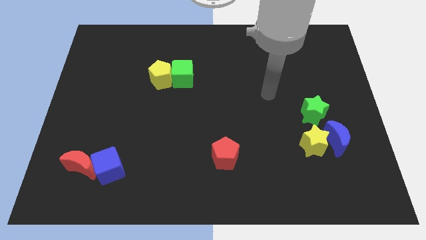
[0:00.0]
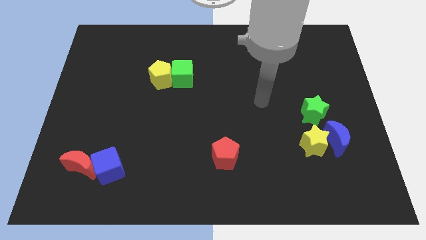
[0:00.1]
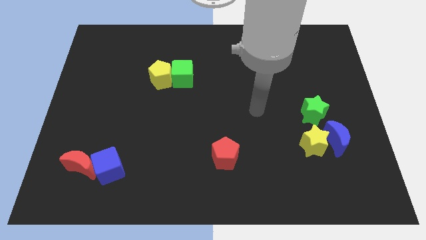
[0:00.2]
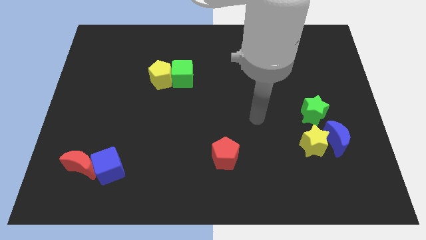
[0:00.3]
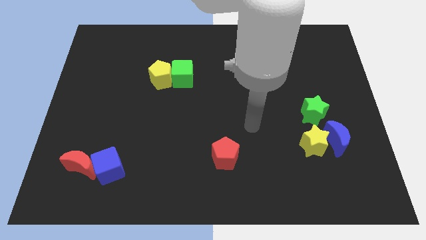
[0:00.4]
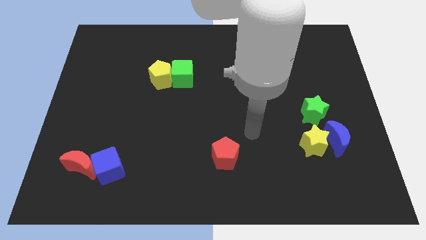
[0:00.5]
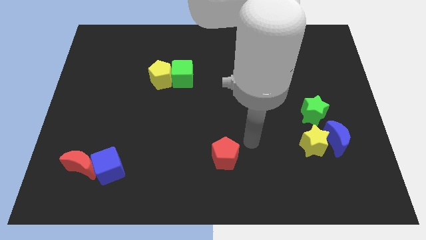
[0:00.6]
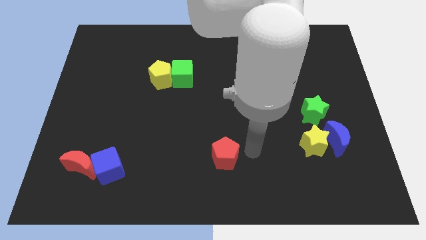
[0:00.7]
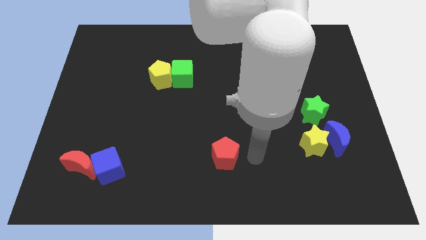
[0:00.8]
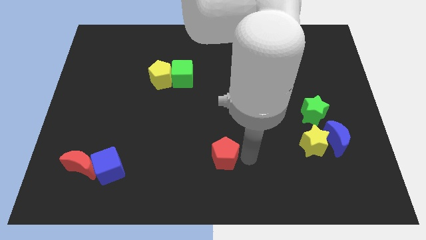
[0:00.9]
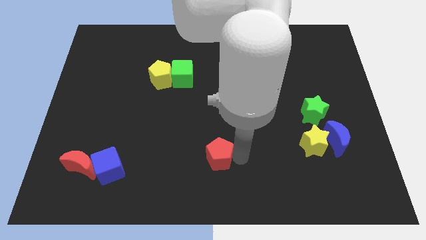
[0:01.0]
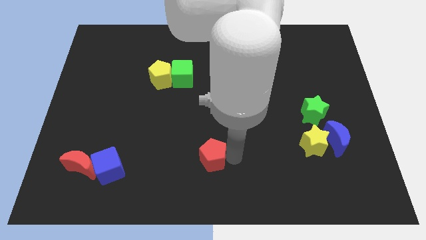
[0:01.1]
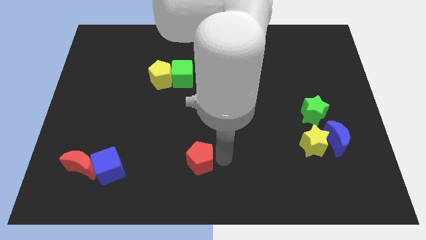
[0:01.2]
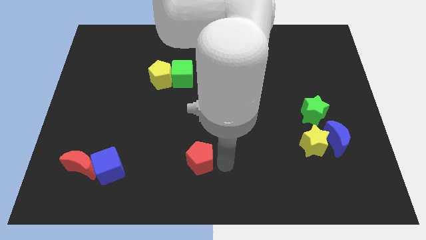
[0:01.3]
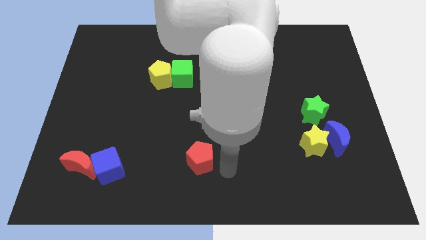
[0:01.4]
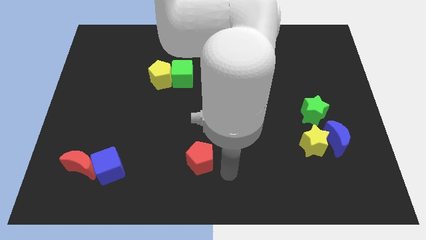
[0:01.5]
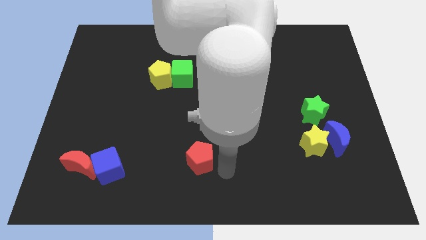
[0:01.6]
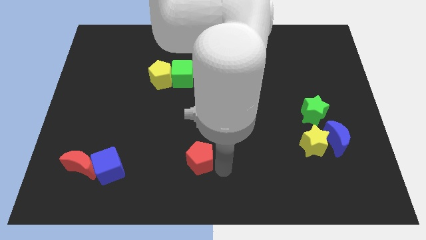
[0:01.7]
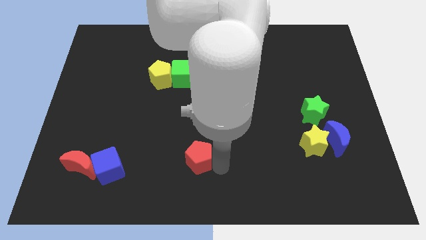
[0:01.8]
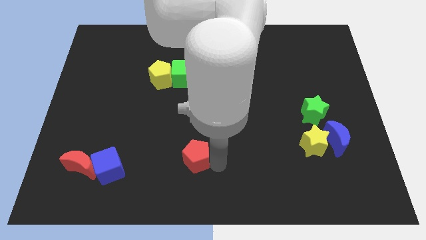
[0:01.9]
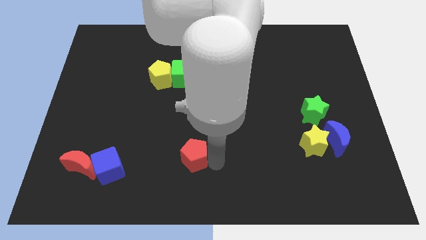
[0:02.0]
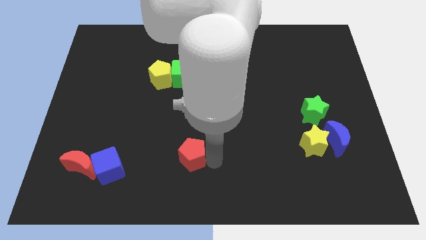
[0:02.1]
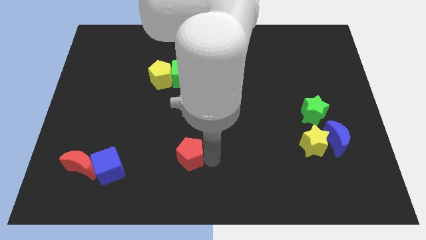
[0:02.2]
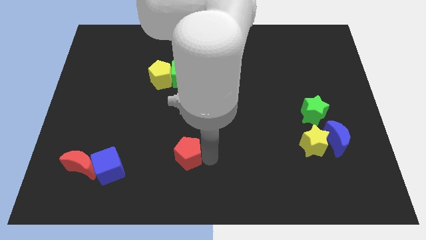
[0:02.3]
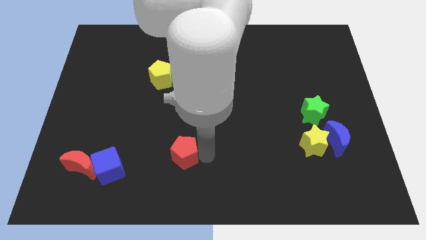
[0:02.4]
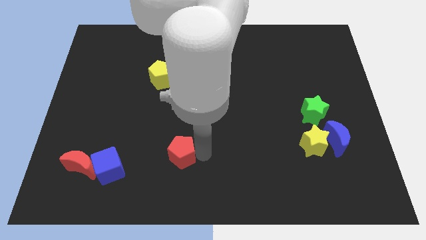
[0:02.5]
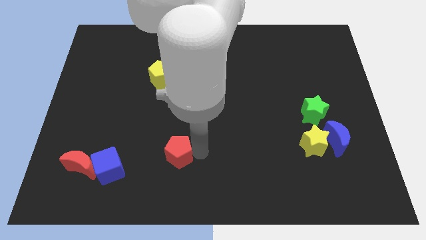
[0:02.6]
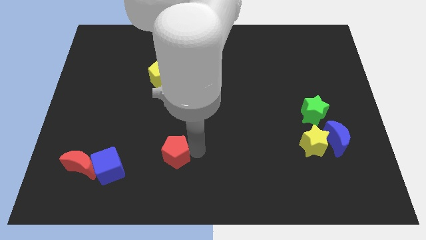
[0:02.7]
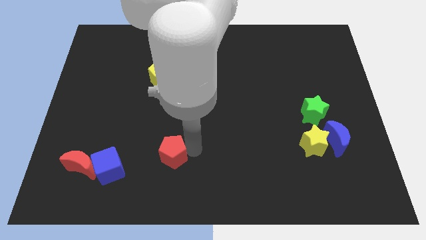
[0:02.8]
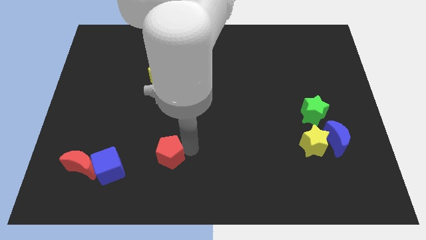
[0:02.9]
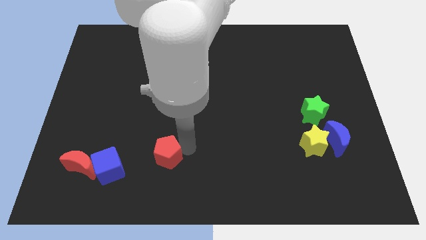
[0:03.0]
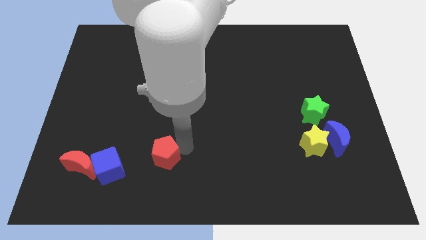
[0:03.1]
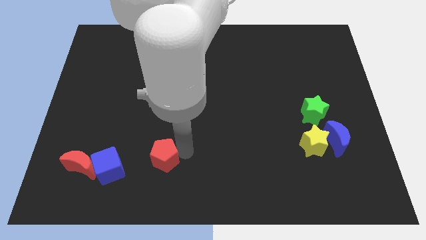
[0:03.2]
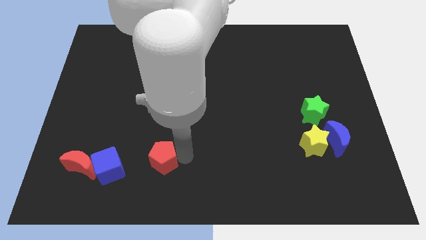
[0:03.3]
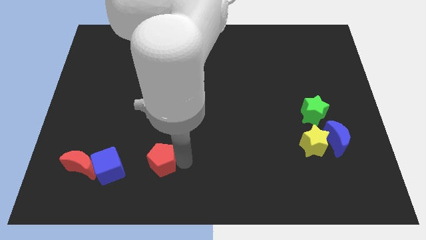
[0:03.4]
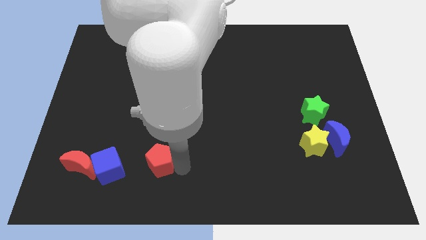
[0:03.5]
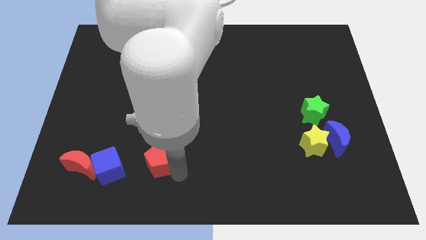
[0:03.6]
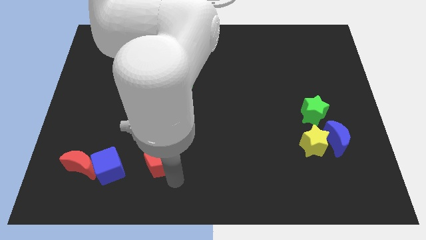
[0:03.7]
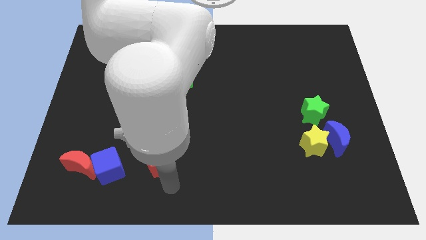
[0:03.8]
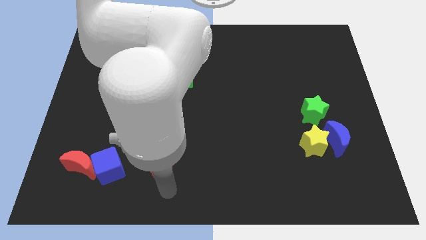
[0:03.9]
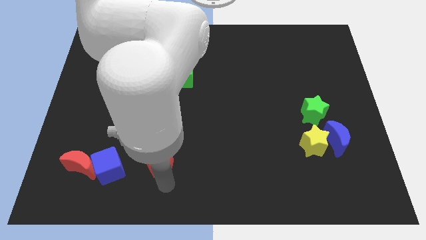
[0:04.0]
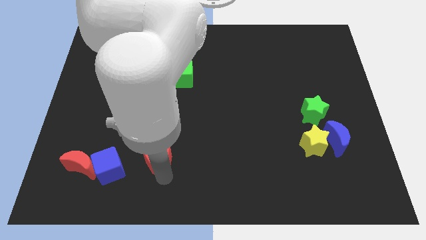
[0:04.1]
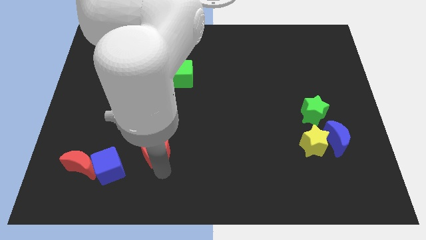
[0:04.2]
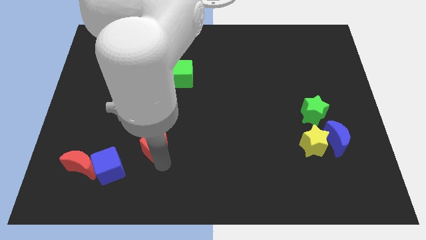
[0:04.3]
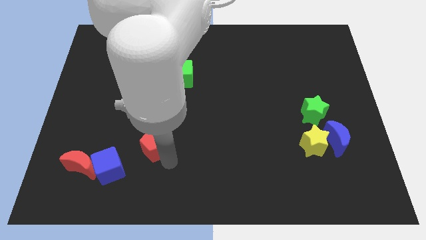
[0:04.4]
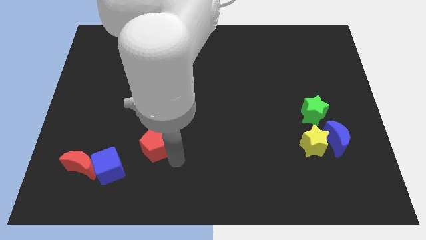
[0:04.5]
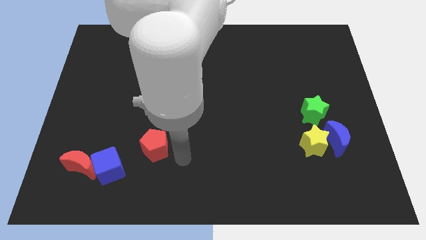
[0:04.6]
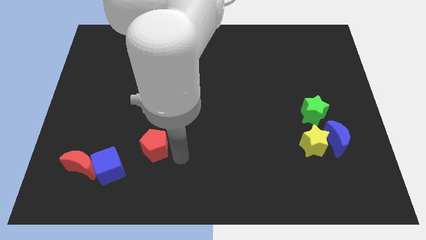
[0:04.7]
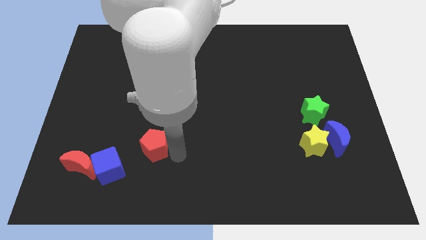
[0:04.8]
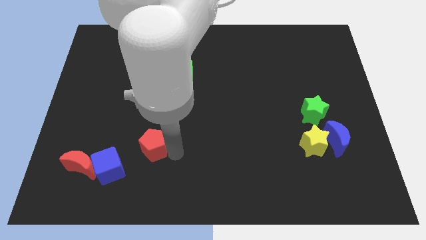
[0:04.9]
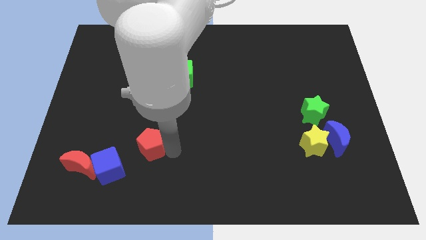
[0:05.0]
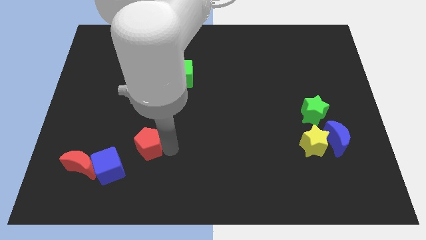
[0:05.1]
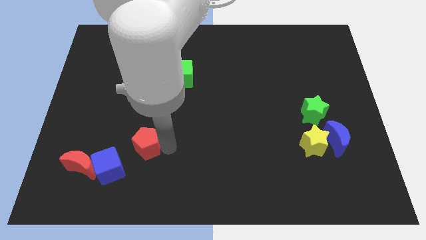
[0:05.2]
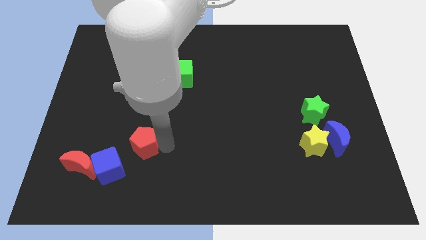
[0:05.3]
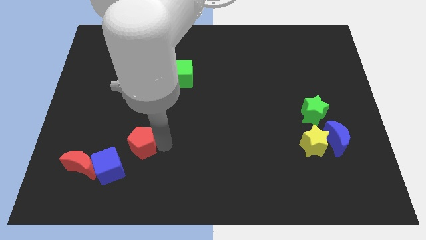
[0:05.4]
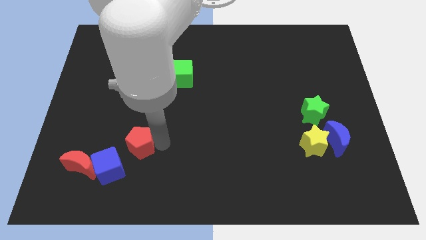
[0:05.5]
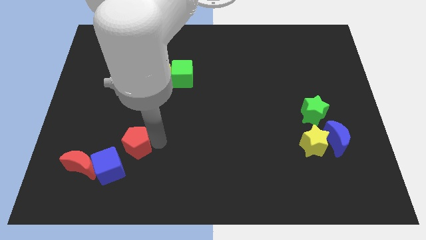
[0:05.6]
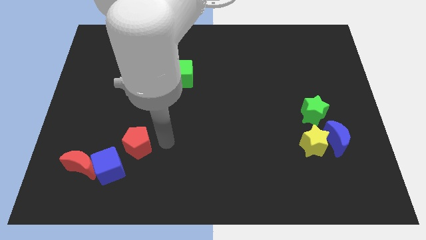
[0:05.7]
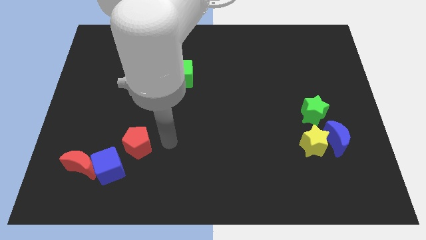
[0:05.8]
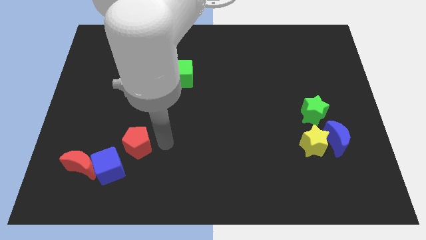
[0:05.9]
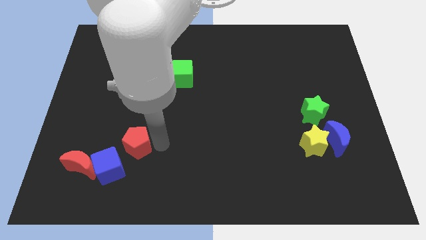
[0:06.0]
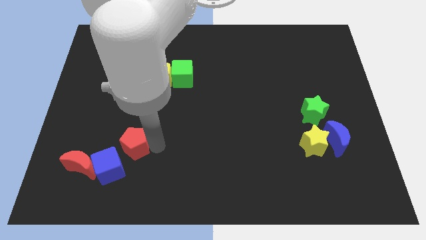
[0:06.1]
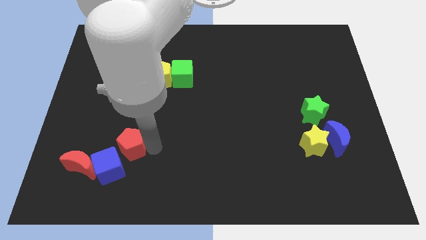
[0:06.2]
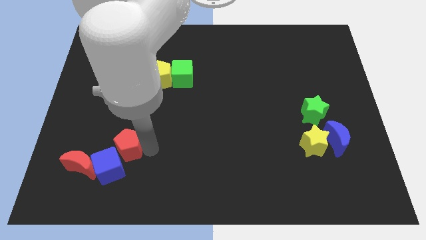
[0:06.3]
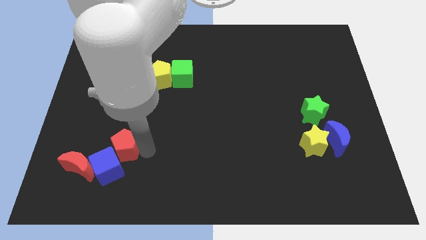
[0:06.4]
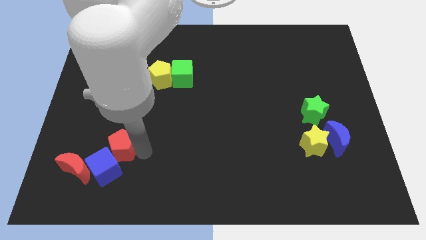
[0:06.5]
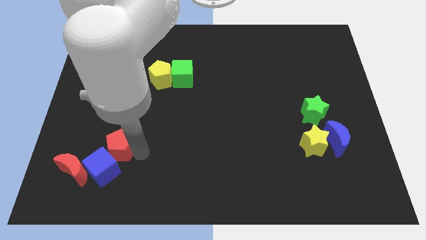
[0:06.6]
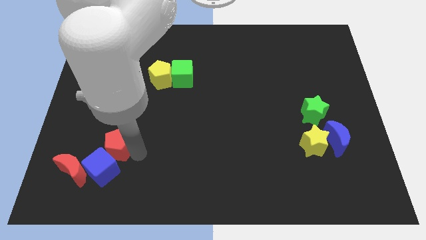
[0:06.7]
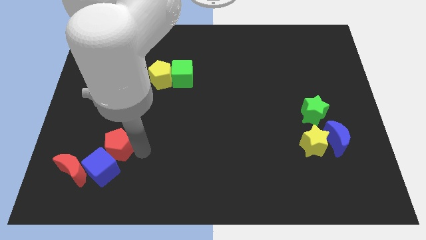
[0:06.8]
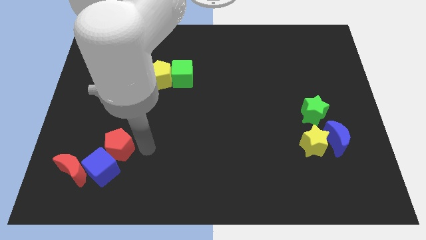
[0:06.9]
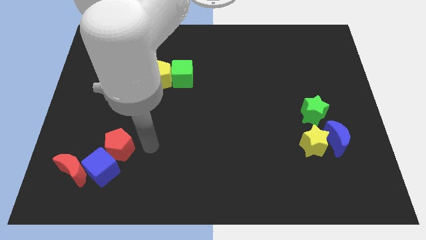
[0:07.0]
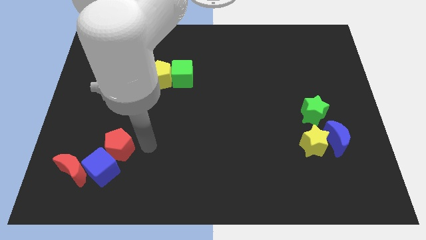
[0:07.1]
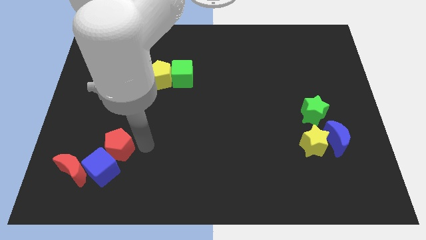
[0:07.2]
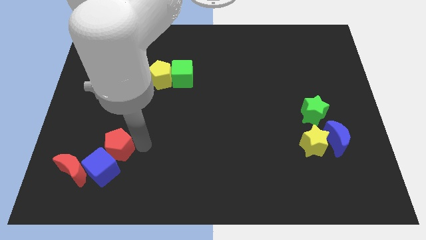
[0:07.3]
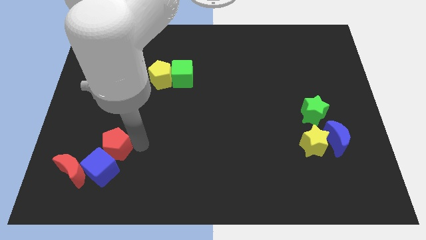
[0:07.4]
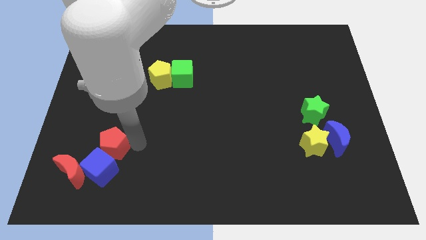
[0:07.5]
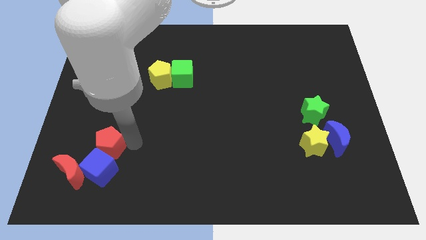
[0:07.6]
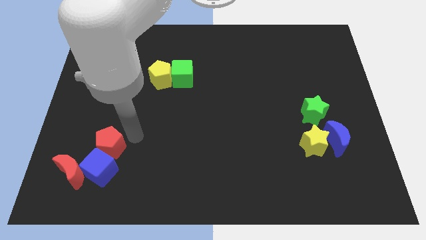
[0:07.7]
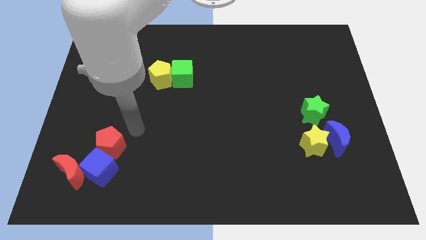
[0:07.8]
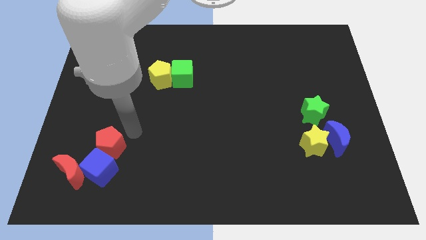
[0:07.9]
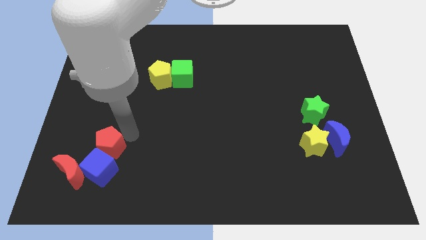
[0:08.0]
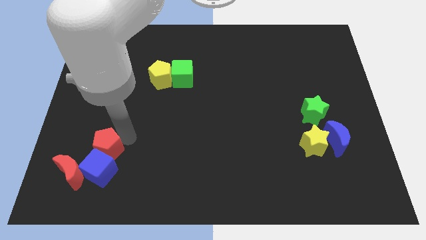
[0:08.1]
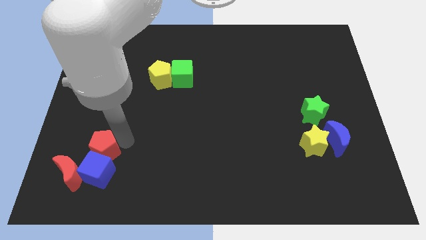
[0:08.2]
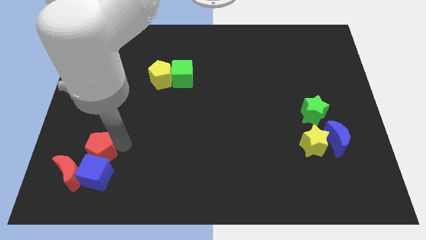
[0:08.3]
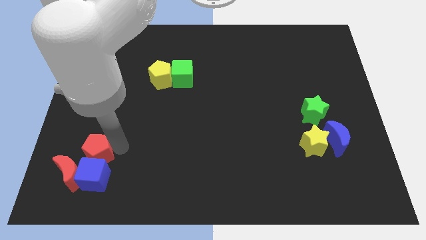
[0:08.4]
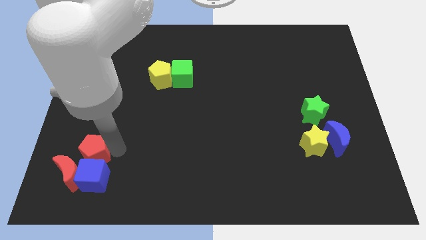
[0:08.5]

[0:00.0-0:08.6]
move the red pentagon to the red moon
